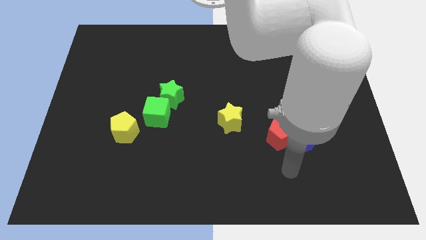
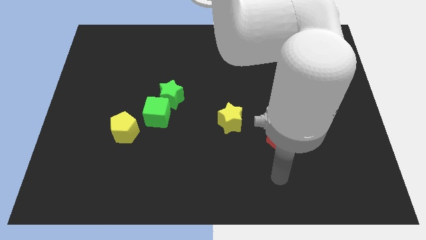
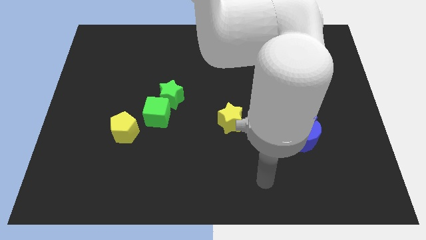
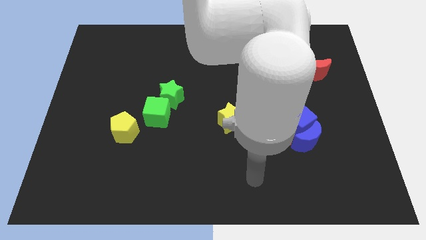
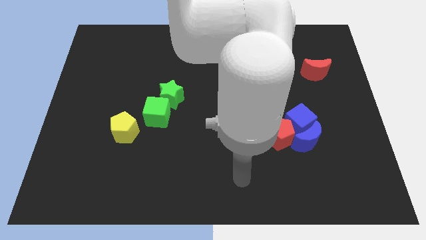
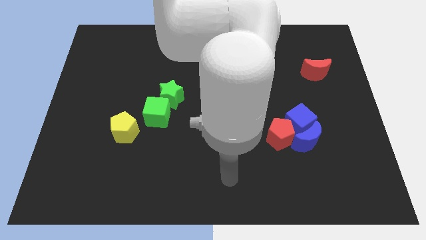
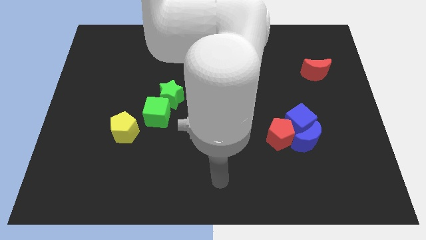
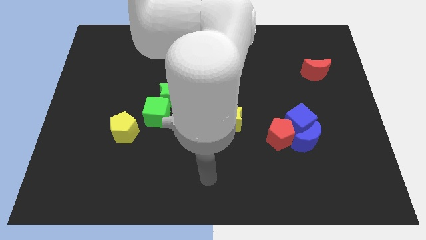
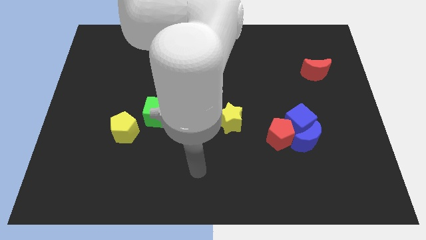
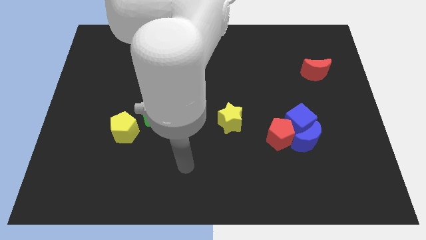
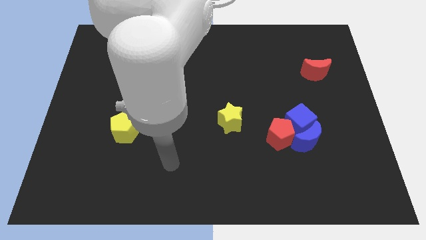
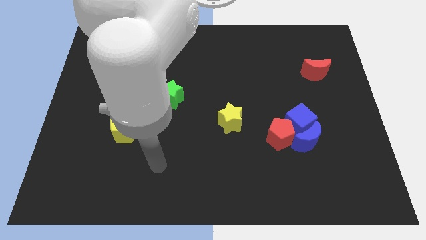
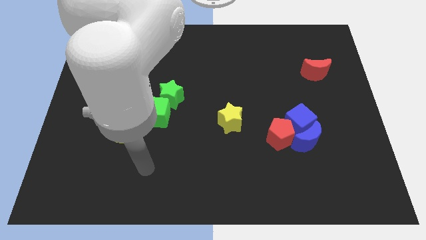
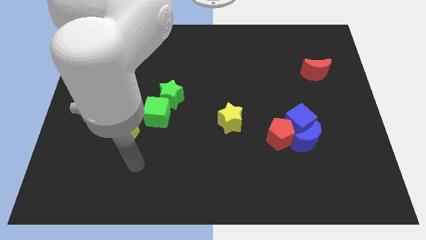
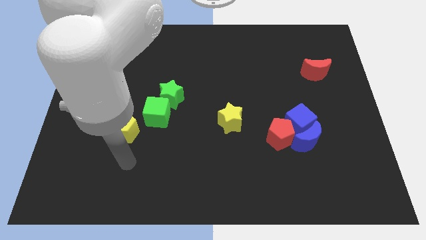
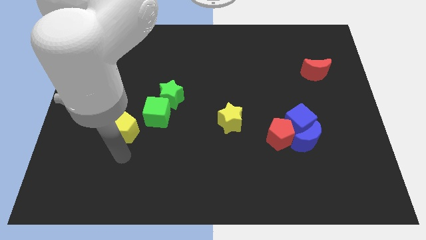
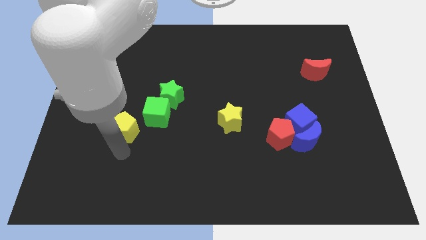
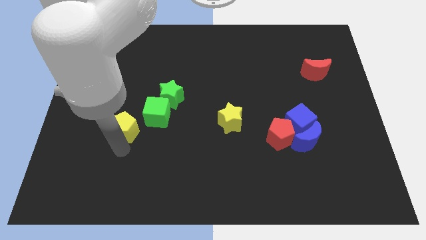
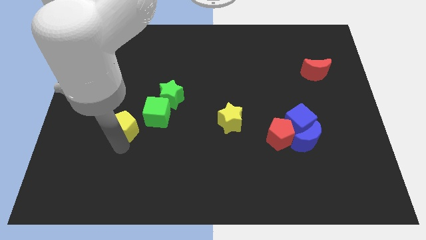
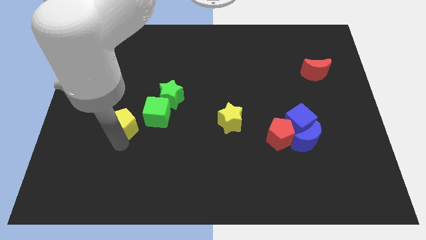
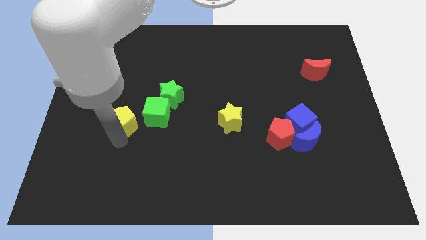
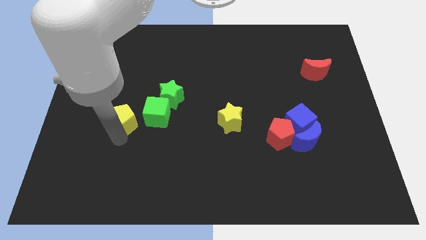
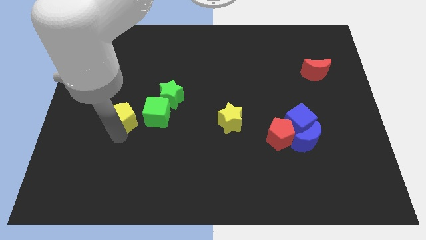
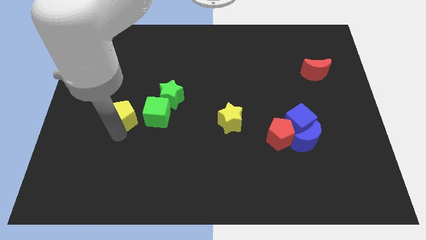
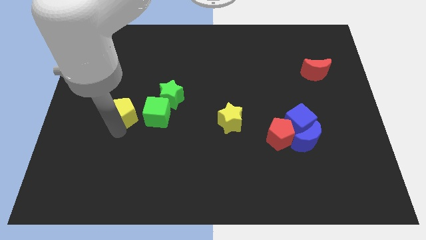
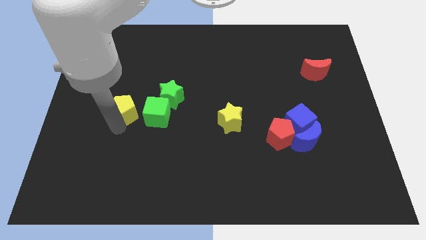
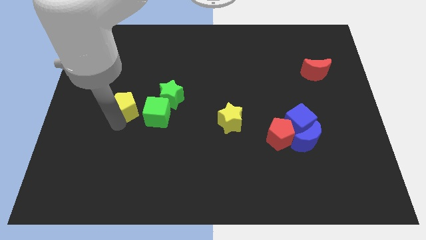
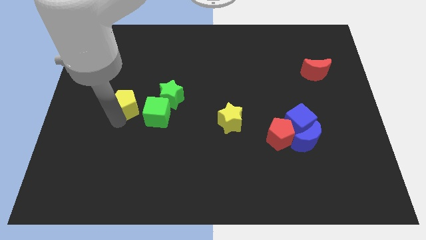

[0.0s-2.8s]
slightly push the yellow pentagon upwards

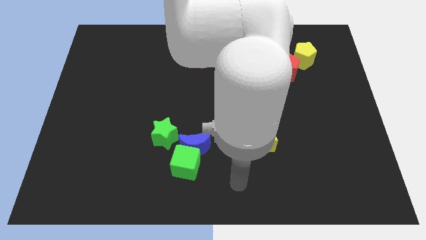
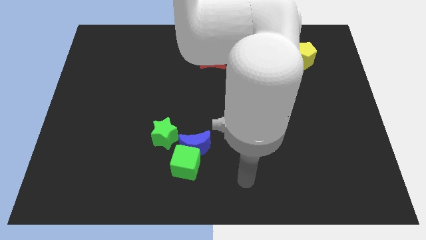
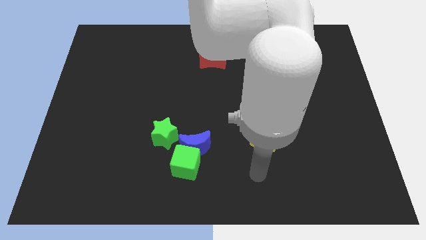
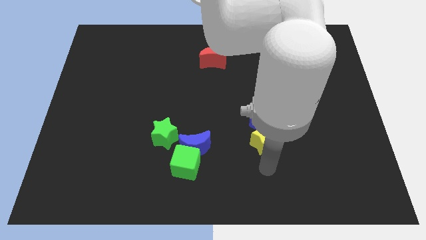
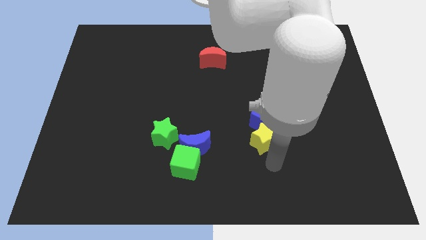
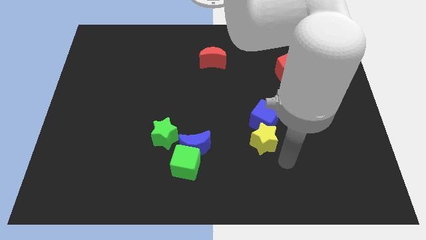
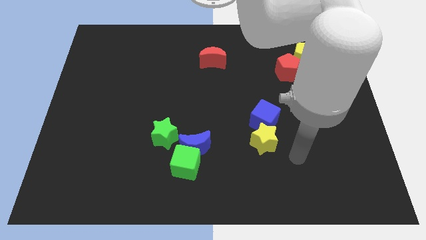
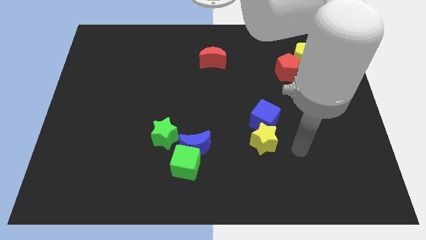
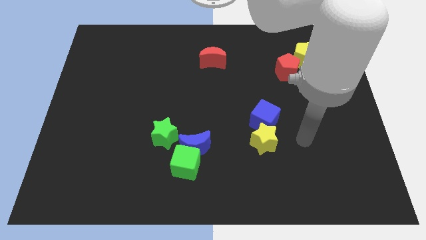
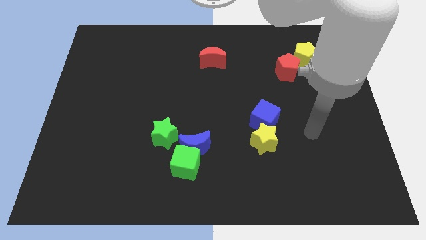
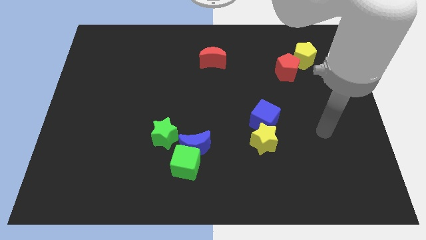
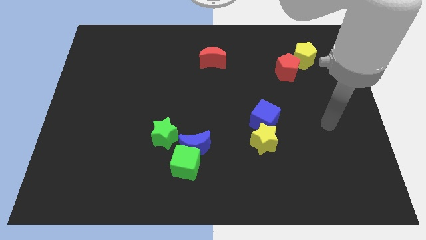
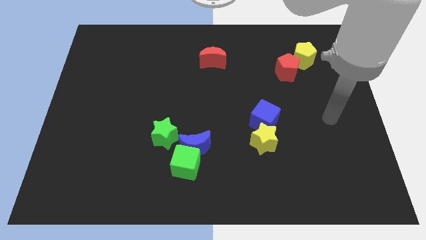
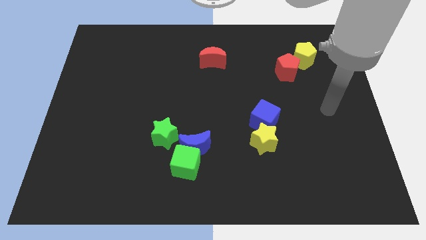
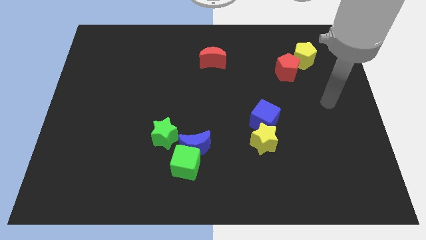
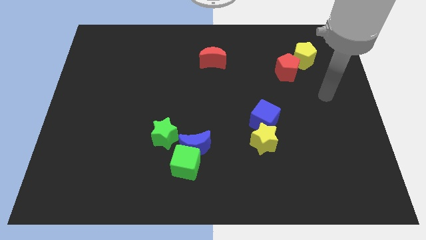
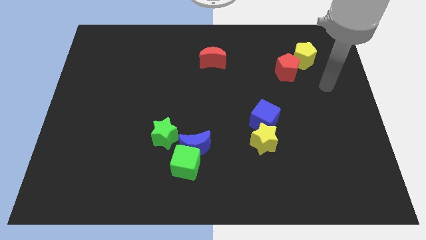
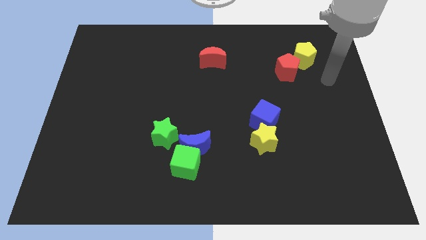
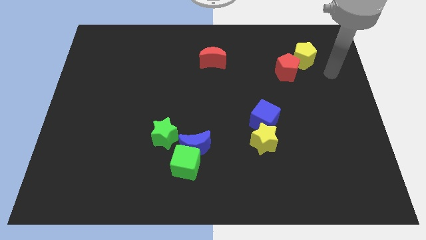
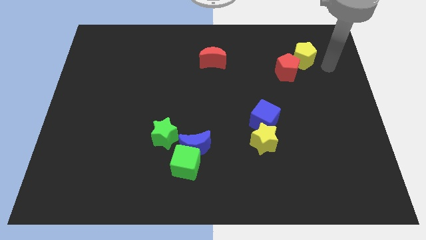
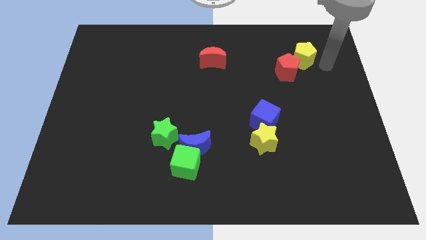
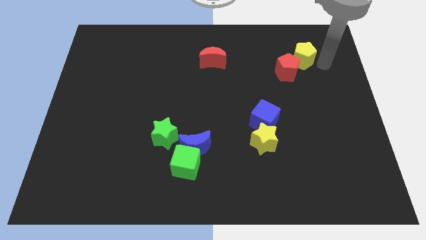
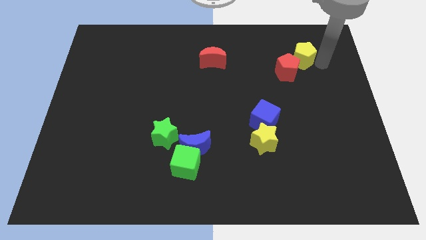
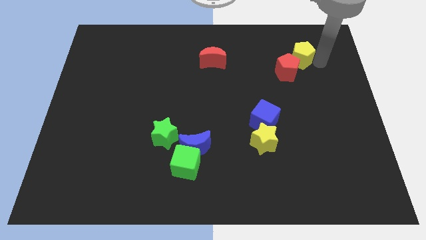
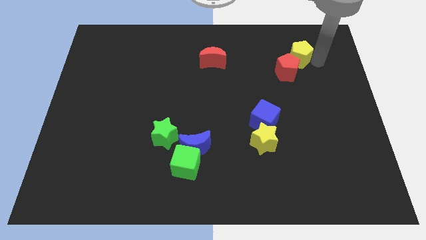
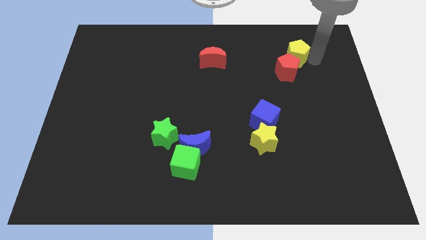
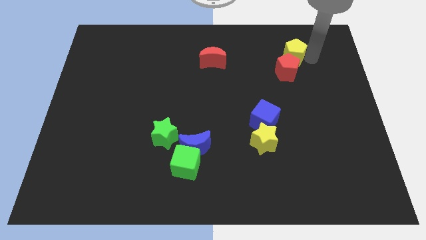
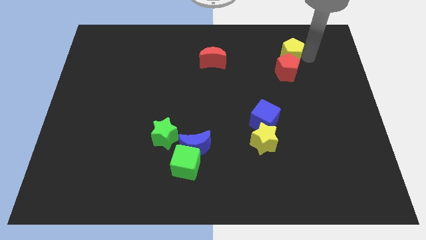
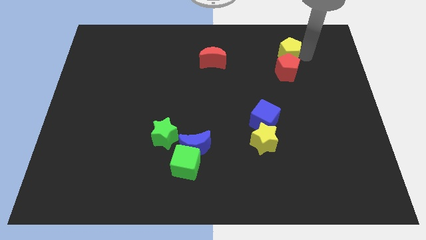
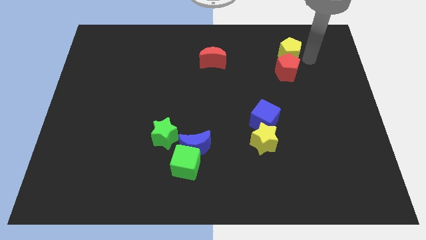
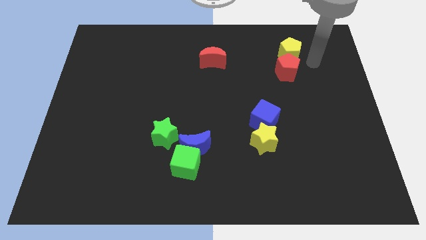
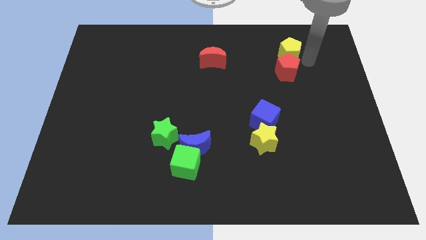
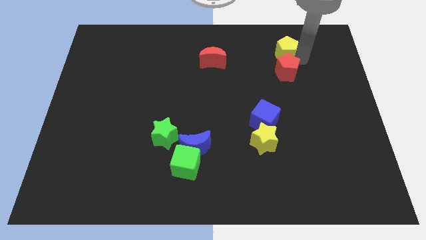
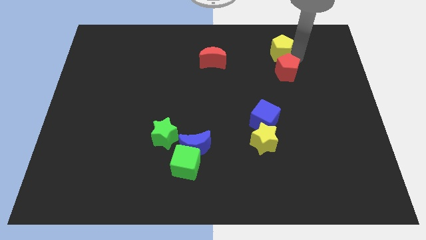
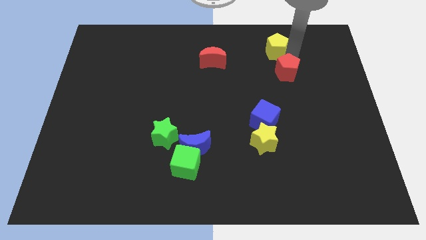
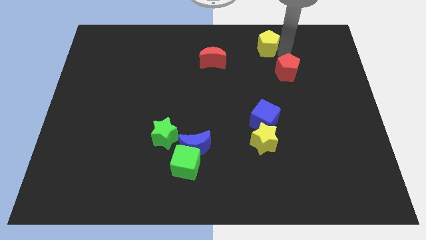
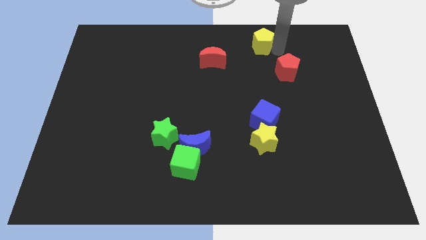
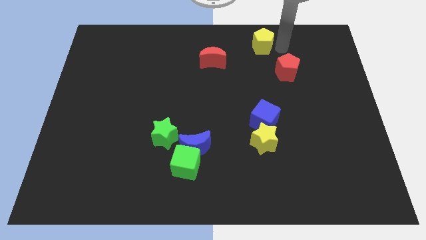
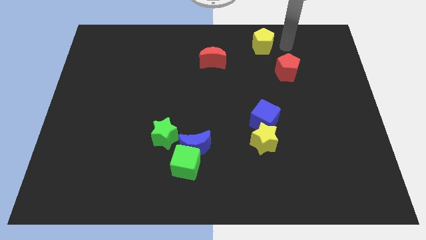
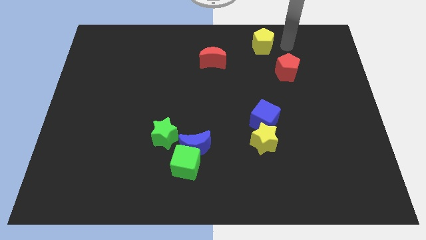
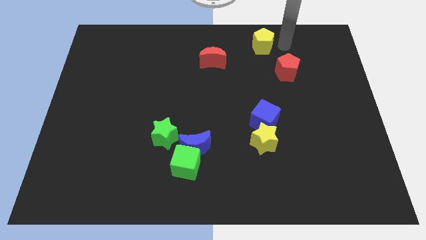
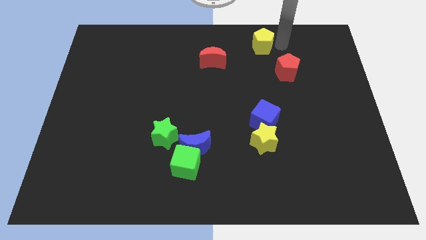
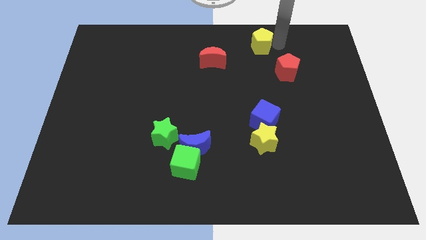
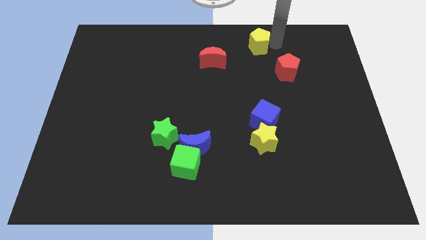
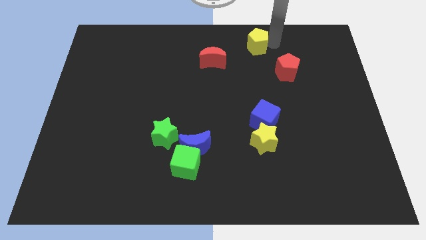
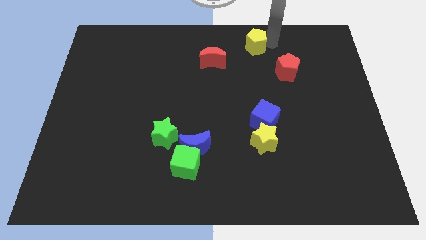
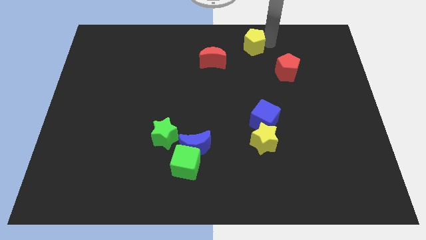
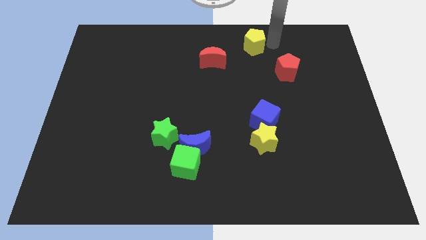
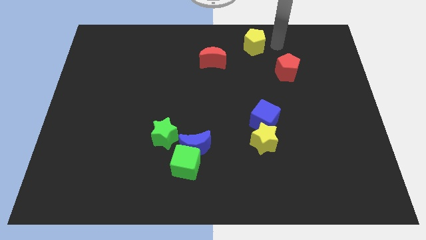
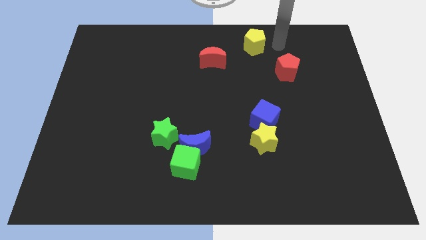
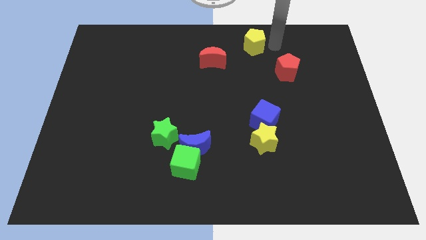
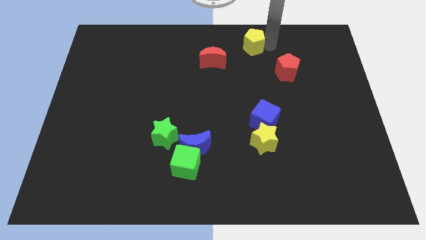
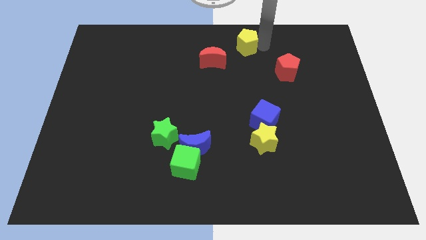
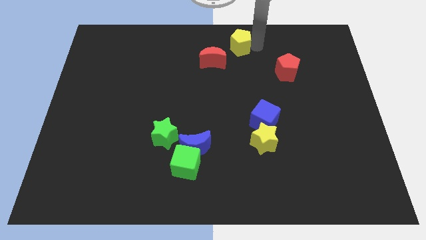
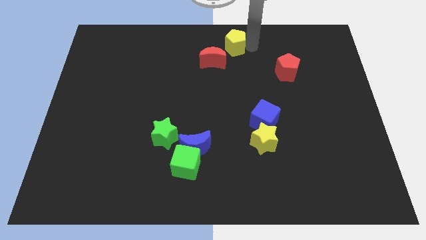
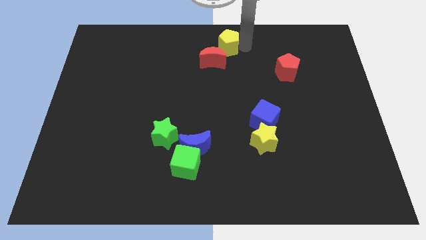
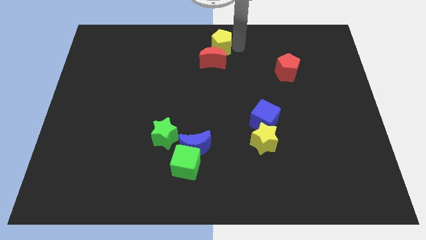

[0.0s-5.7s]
slide the yellow pentagon to the left
